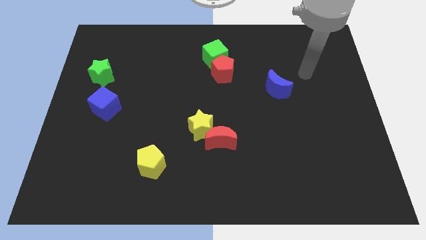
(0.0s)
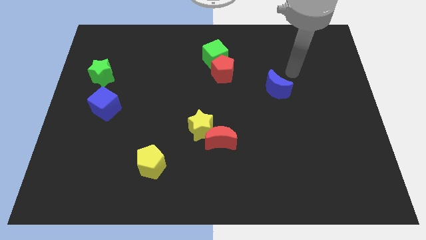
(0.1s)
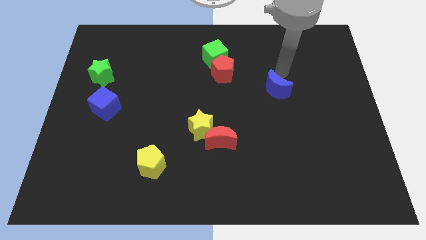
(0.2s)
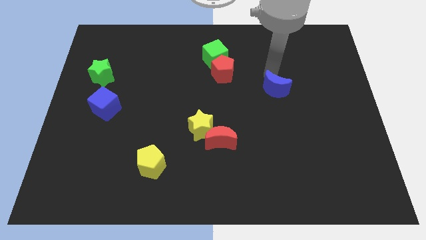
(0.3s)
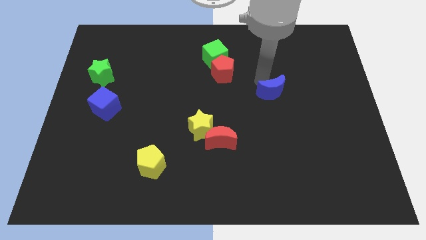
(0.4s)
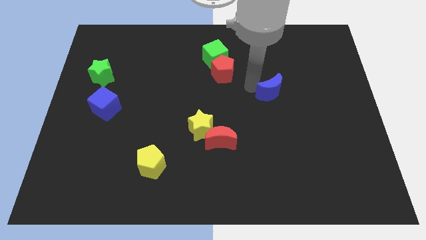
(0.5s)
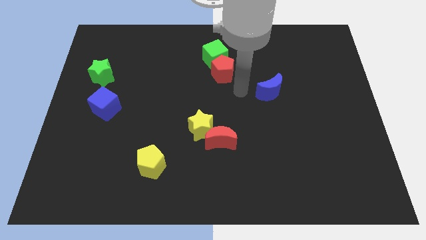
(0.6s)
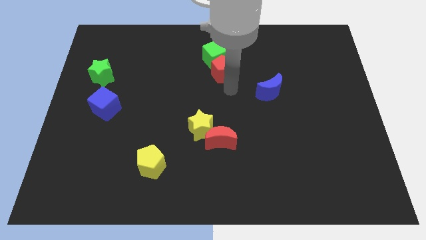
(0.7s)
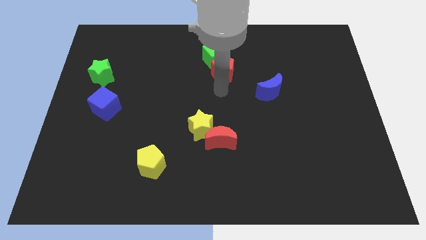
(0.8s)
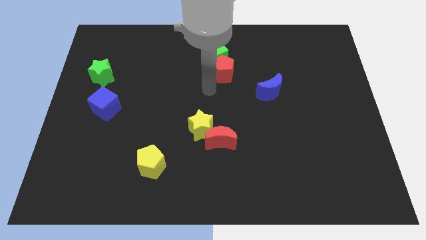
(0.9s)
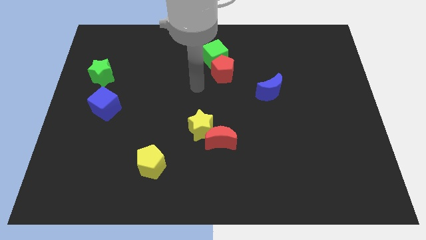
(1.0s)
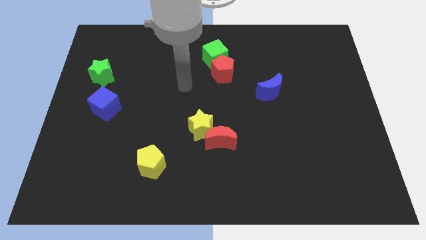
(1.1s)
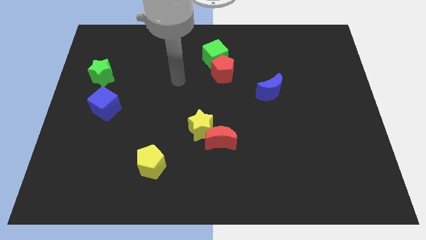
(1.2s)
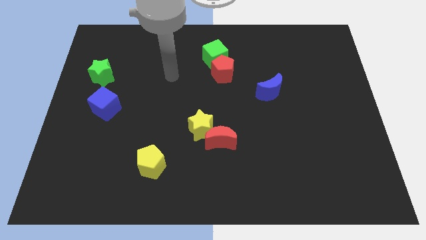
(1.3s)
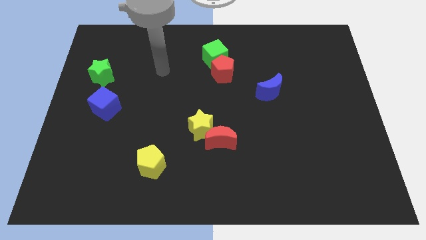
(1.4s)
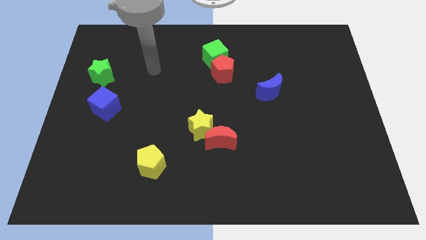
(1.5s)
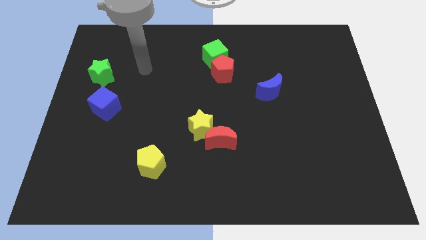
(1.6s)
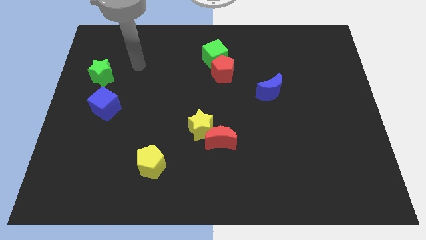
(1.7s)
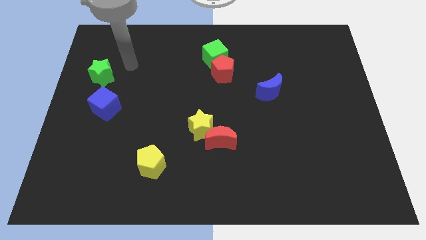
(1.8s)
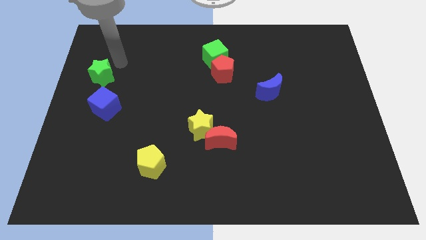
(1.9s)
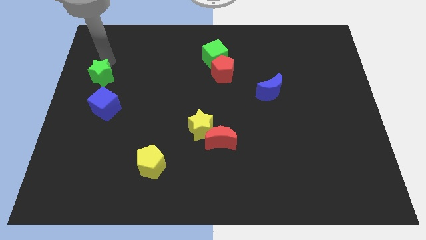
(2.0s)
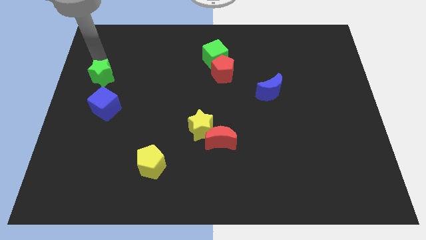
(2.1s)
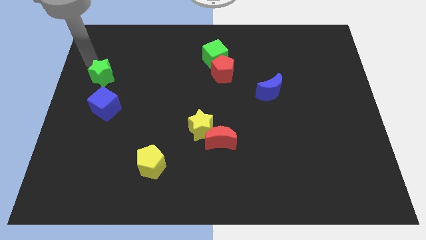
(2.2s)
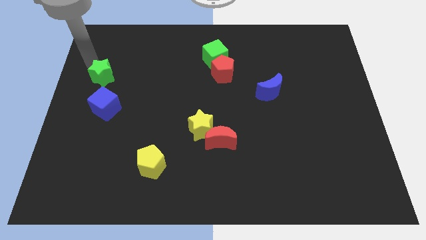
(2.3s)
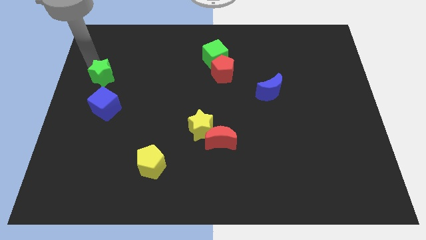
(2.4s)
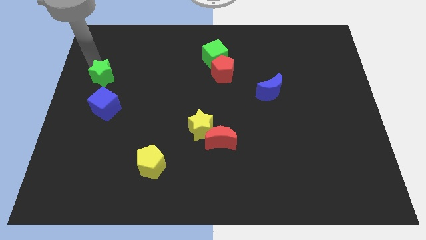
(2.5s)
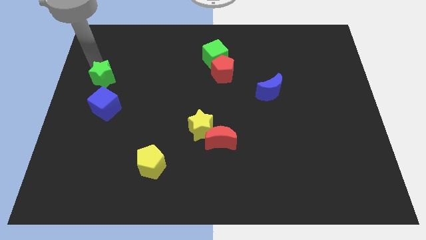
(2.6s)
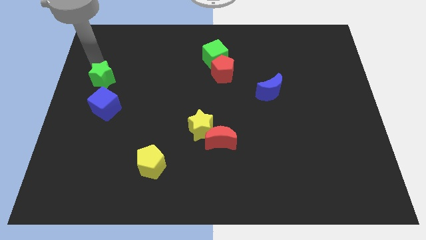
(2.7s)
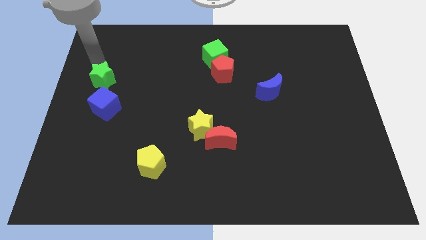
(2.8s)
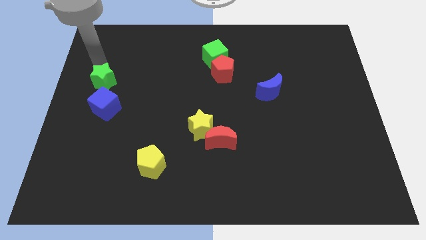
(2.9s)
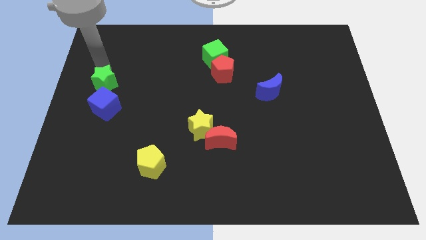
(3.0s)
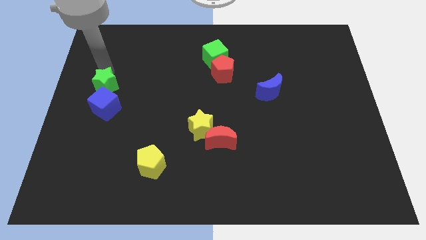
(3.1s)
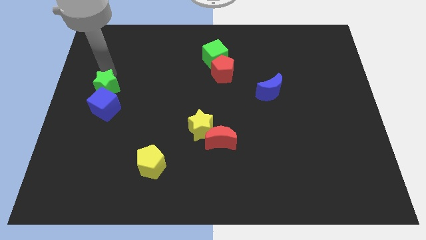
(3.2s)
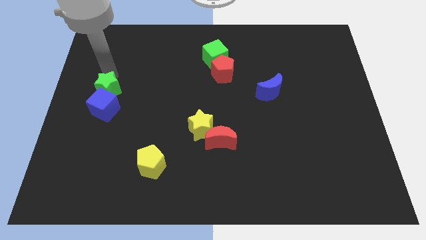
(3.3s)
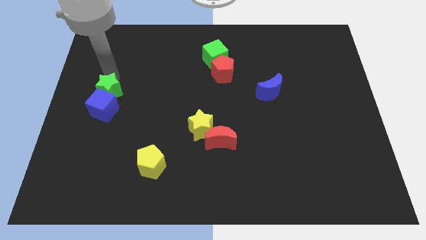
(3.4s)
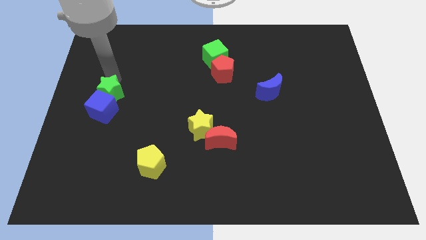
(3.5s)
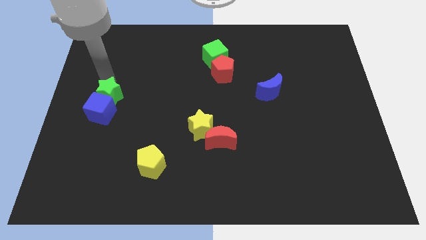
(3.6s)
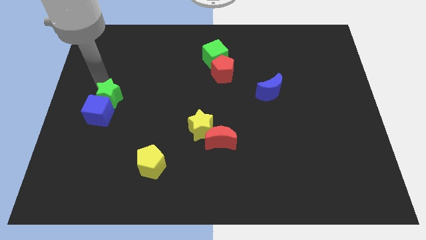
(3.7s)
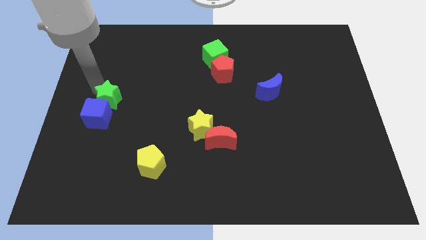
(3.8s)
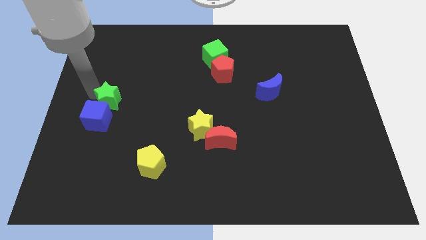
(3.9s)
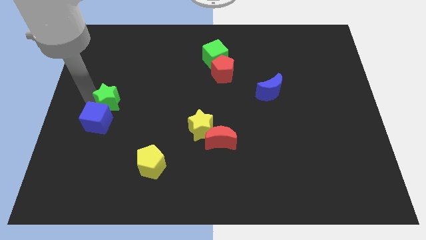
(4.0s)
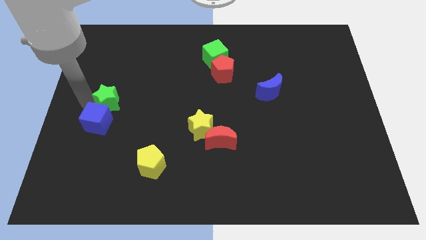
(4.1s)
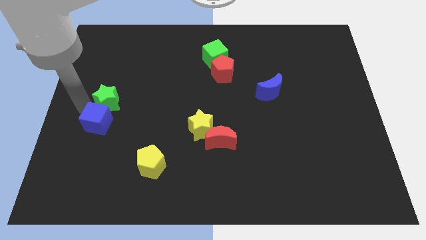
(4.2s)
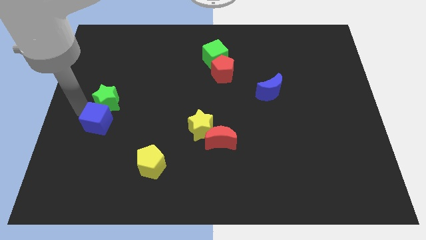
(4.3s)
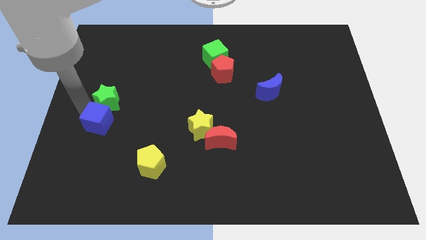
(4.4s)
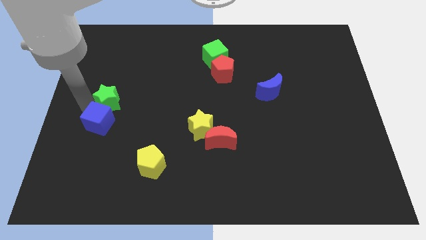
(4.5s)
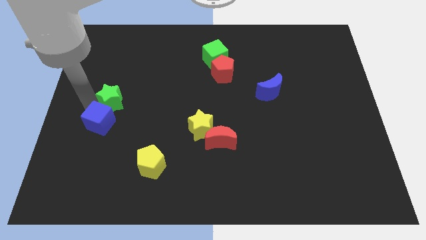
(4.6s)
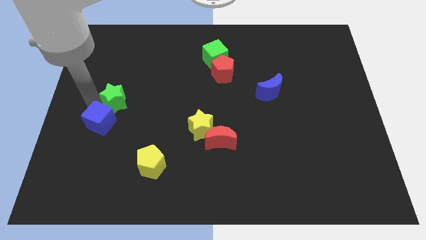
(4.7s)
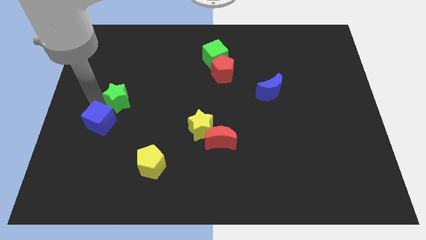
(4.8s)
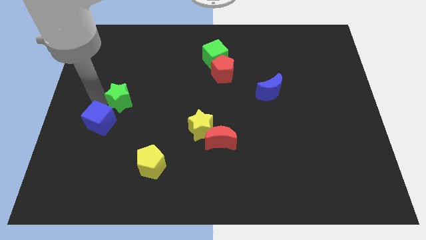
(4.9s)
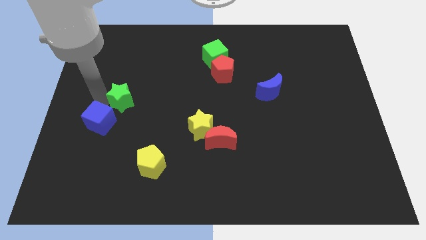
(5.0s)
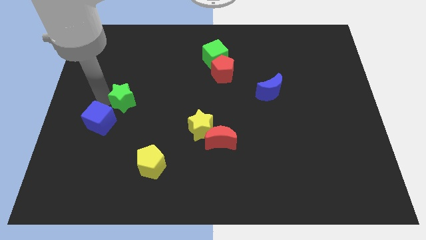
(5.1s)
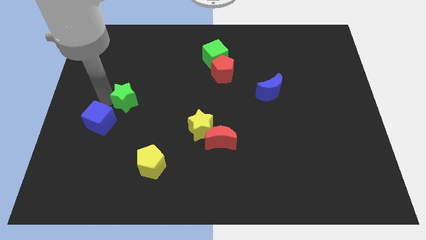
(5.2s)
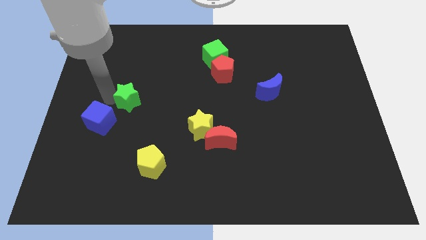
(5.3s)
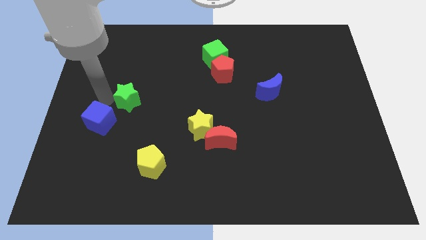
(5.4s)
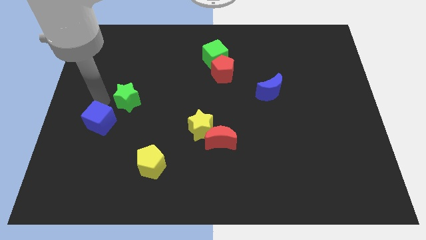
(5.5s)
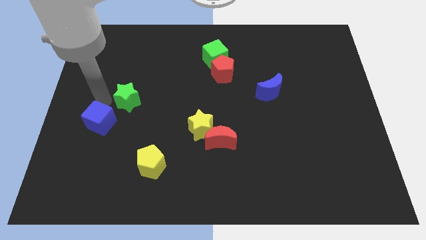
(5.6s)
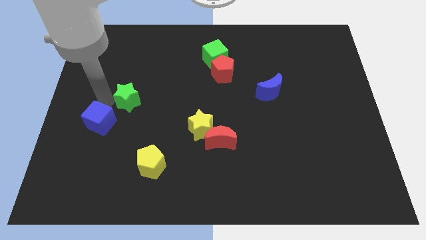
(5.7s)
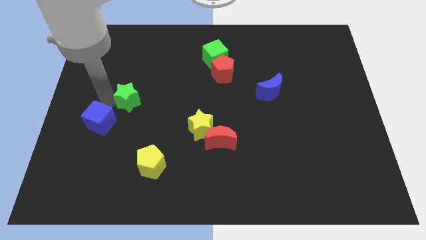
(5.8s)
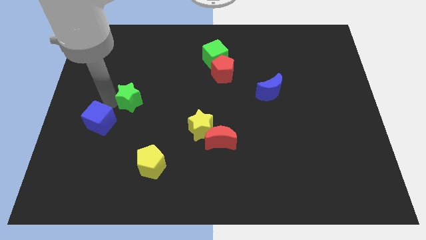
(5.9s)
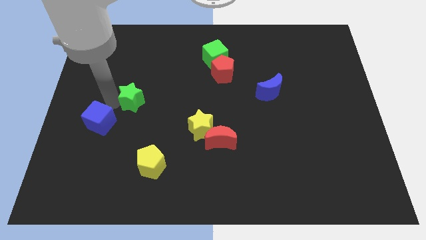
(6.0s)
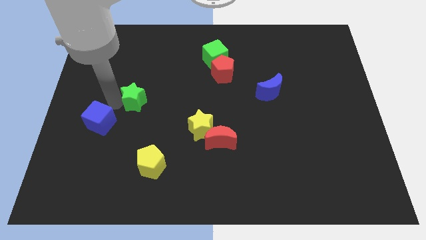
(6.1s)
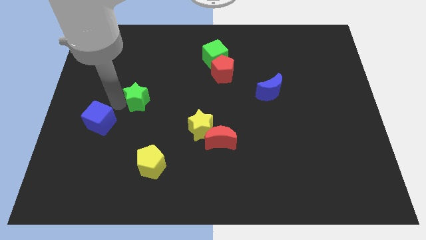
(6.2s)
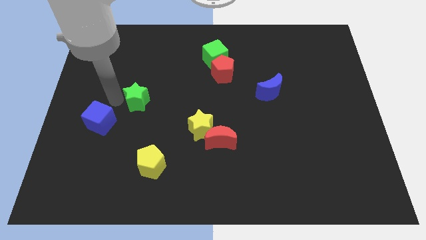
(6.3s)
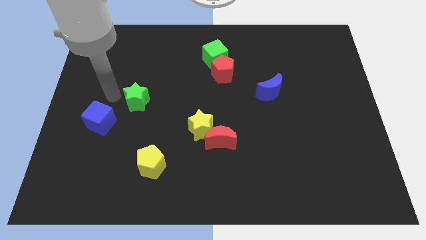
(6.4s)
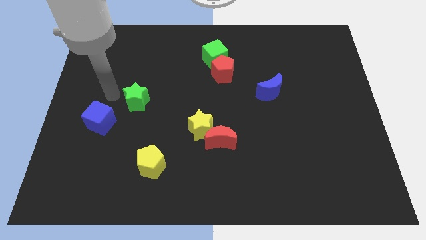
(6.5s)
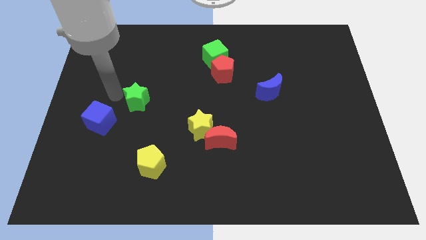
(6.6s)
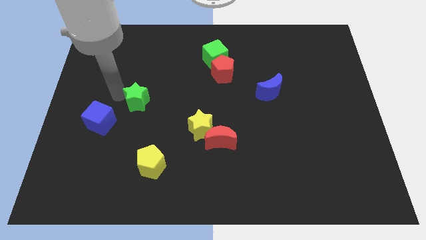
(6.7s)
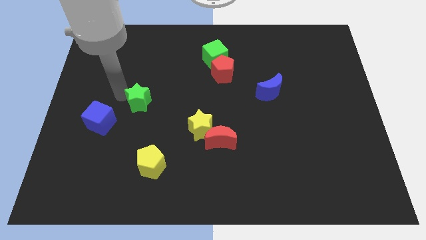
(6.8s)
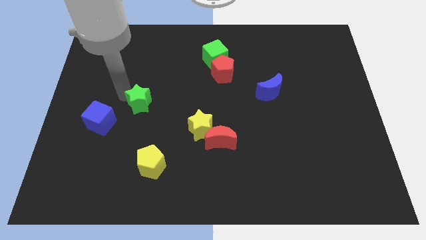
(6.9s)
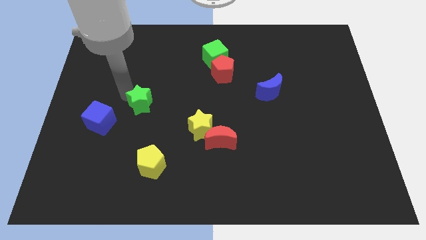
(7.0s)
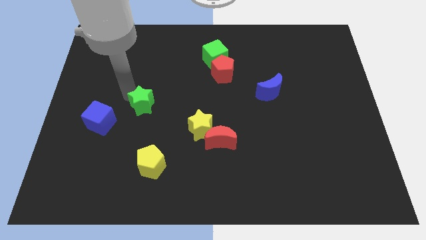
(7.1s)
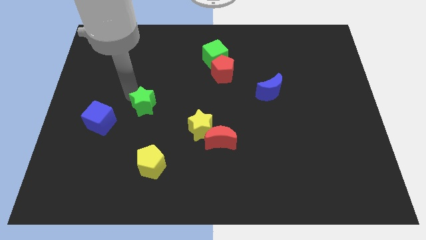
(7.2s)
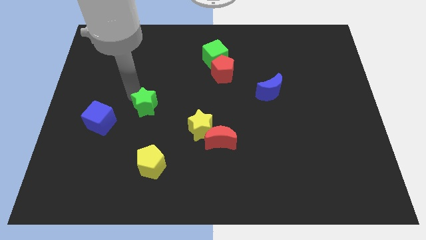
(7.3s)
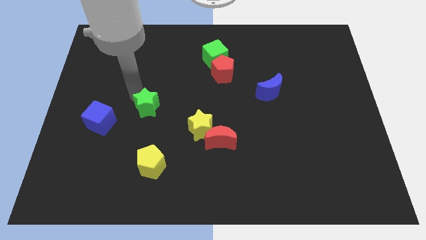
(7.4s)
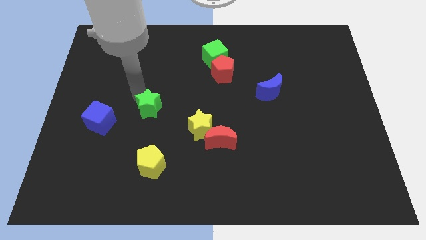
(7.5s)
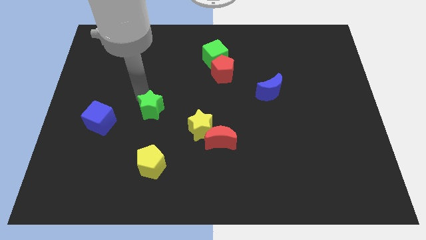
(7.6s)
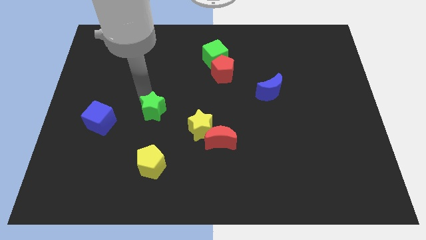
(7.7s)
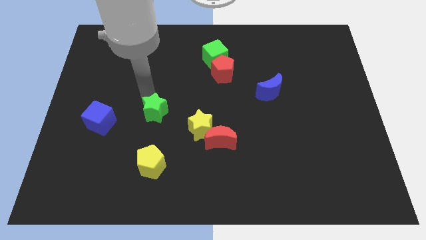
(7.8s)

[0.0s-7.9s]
slide the green star diagonally up and to the left of the yellow star
